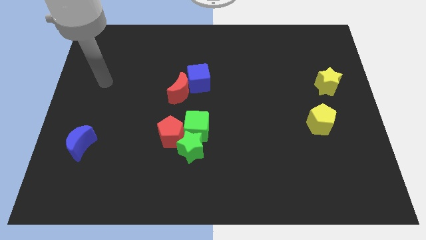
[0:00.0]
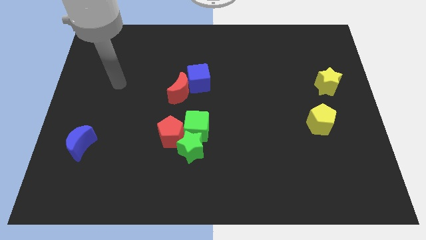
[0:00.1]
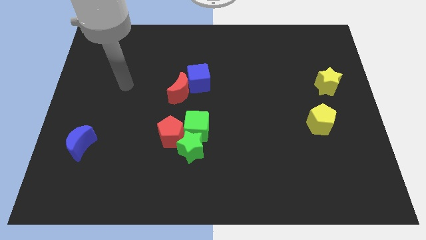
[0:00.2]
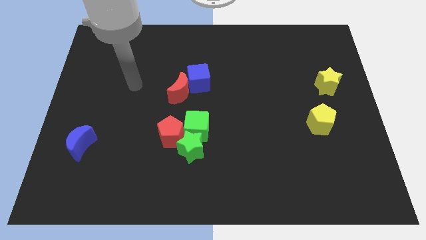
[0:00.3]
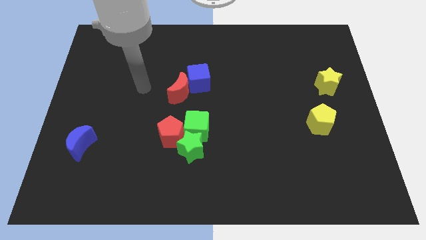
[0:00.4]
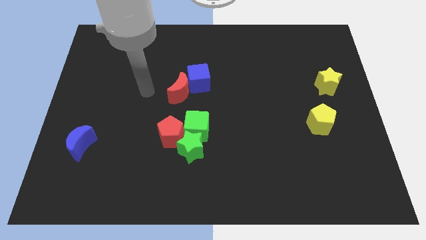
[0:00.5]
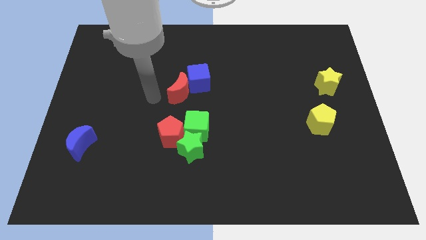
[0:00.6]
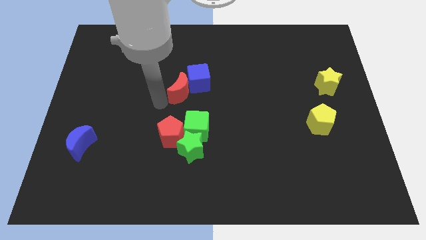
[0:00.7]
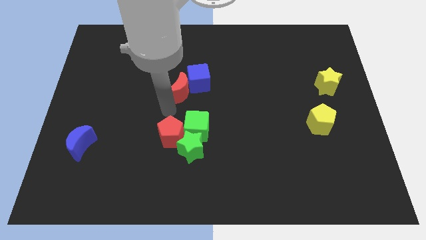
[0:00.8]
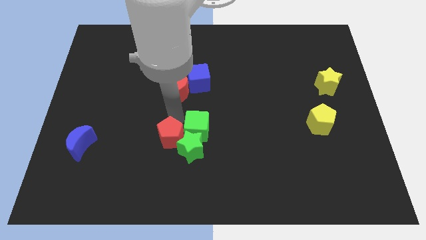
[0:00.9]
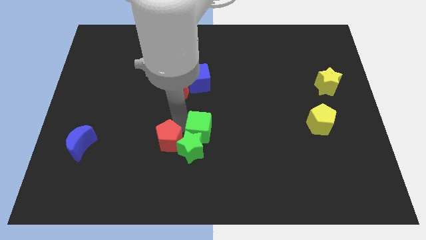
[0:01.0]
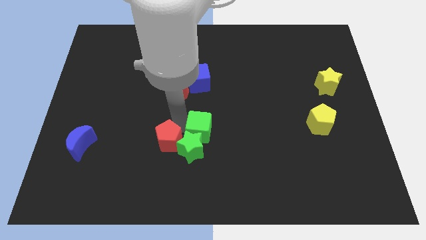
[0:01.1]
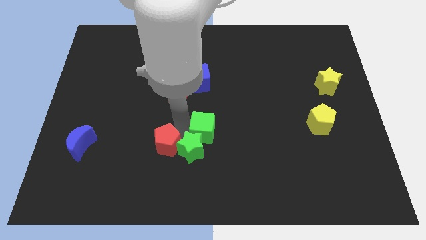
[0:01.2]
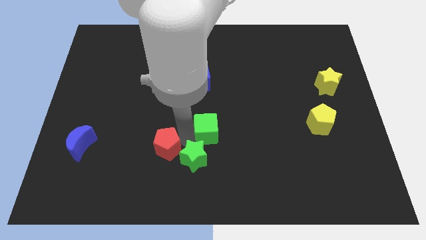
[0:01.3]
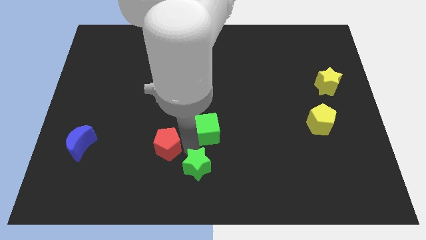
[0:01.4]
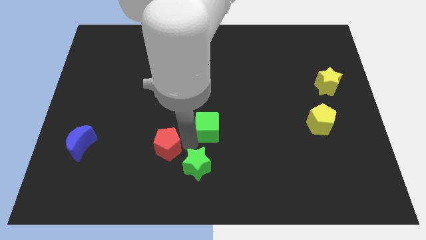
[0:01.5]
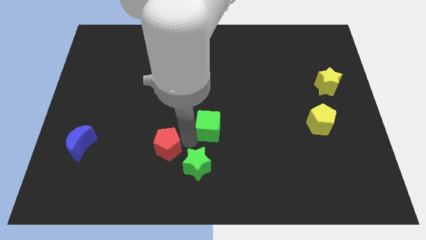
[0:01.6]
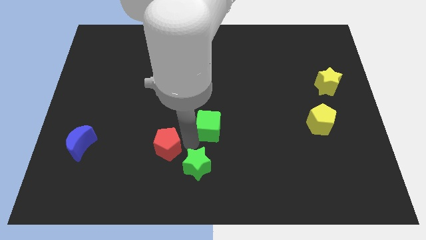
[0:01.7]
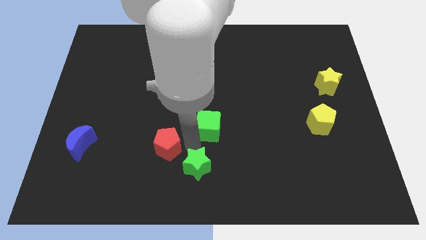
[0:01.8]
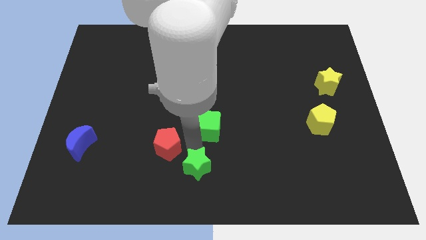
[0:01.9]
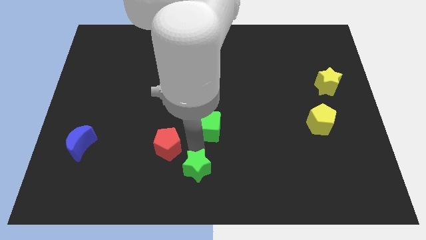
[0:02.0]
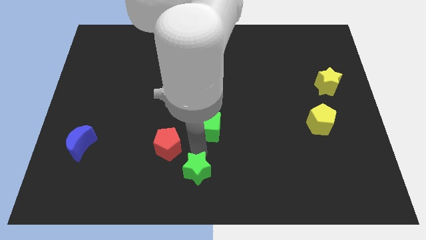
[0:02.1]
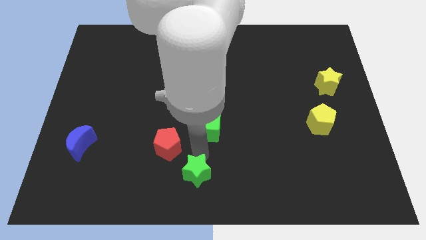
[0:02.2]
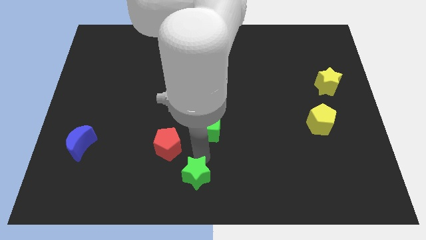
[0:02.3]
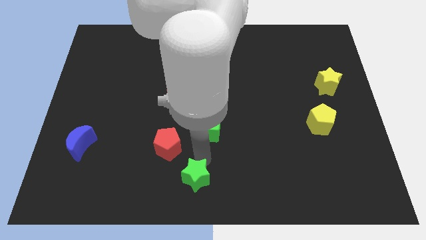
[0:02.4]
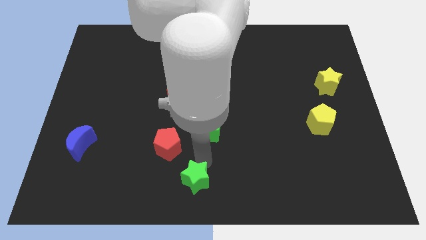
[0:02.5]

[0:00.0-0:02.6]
separate the green star from the green cube and red pentagon

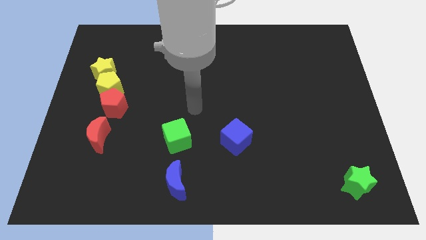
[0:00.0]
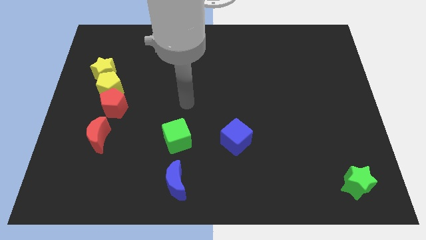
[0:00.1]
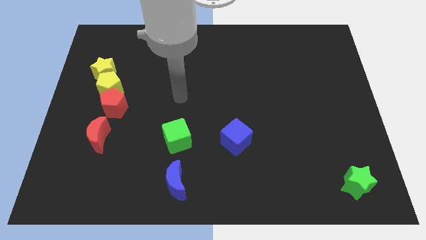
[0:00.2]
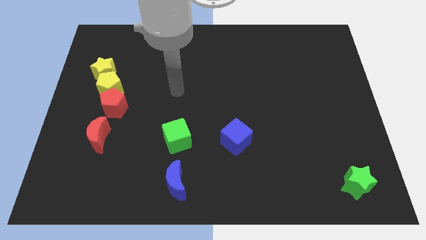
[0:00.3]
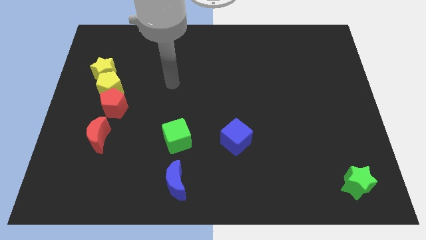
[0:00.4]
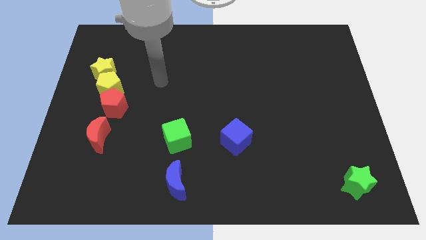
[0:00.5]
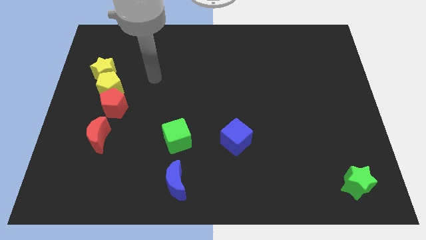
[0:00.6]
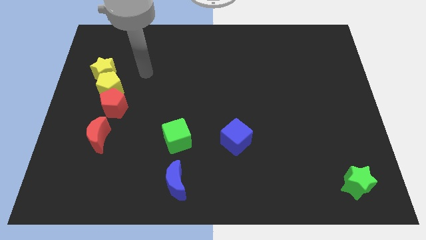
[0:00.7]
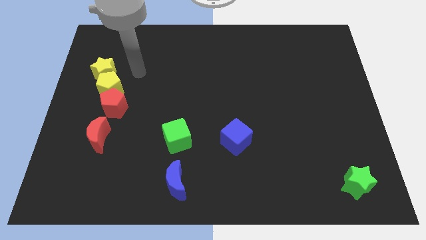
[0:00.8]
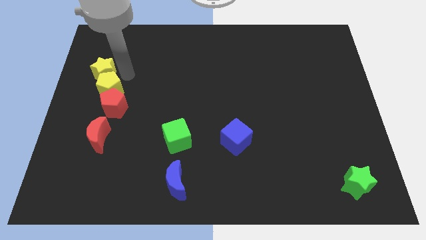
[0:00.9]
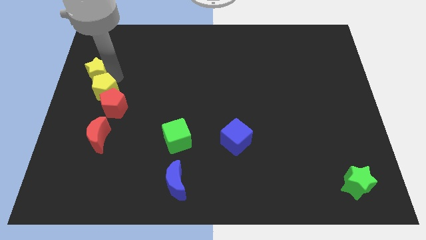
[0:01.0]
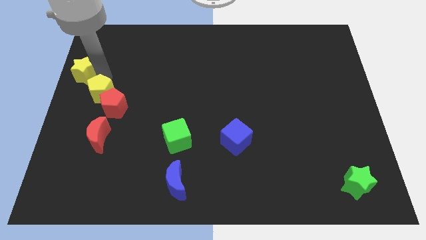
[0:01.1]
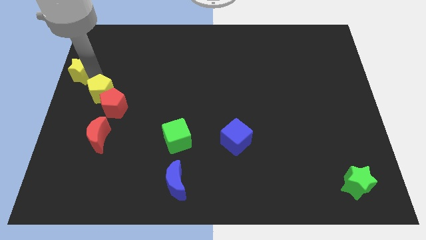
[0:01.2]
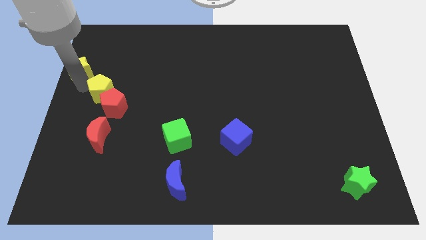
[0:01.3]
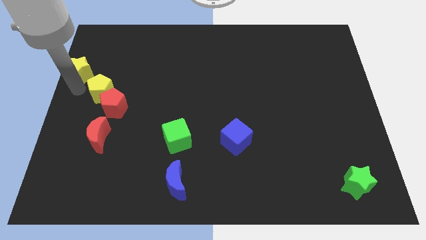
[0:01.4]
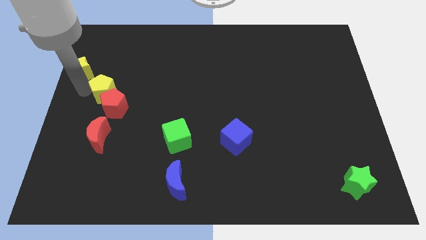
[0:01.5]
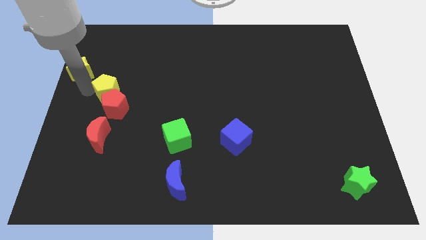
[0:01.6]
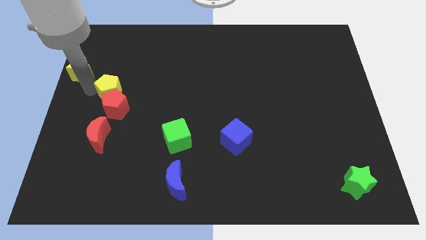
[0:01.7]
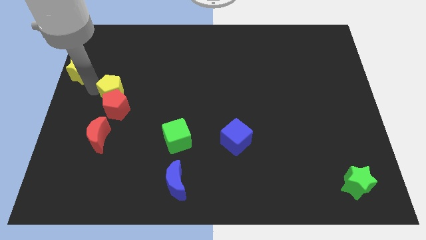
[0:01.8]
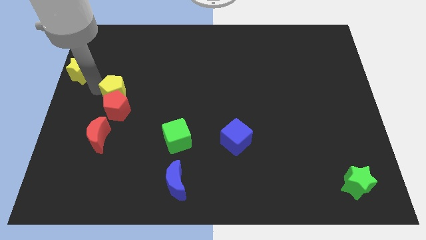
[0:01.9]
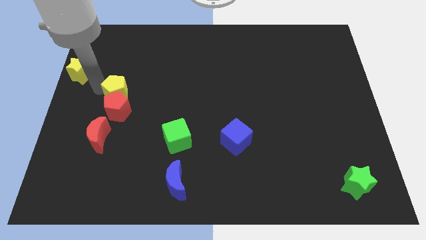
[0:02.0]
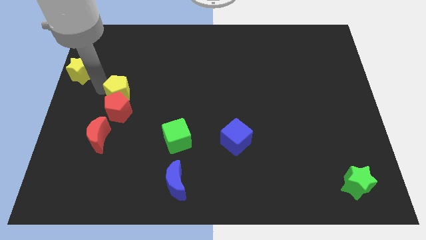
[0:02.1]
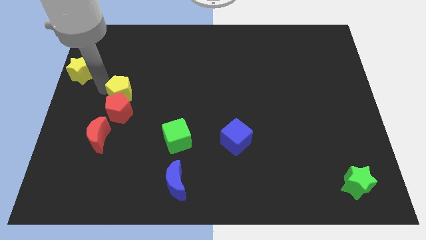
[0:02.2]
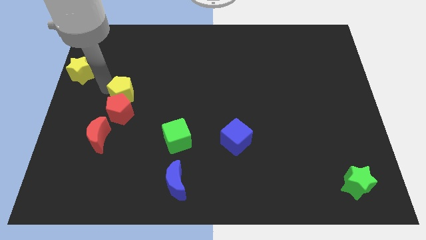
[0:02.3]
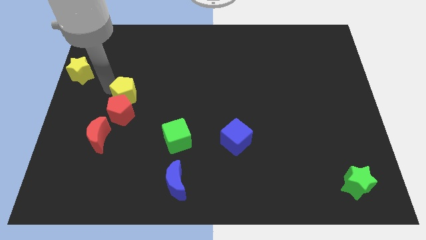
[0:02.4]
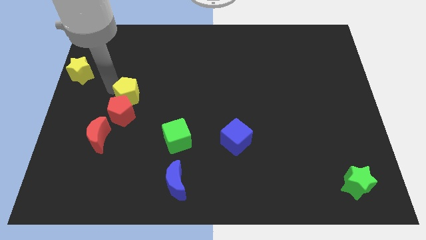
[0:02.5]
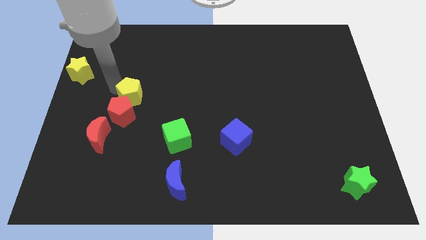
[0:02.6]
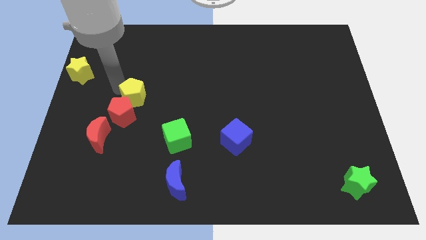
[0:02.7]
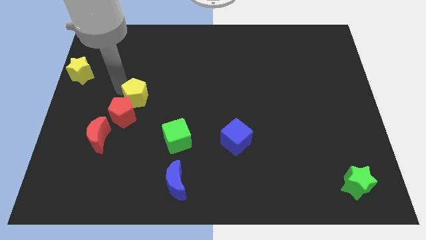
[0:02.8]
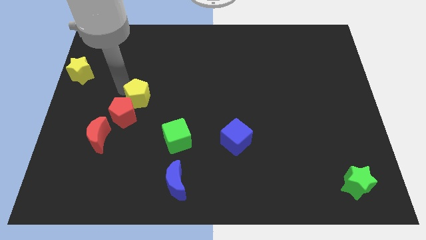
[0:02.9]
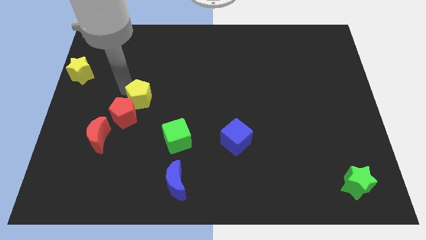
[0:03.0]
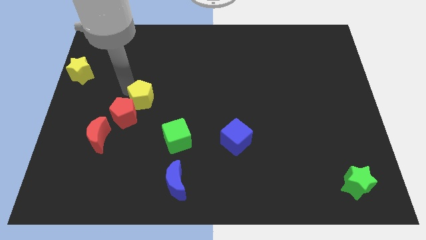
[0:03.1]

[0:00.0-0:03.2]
move the yellow pentagon away from the red pentagon and yellow star

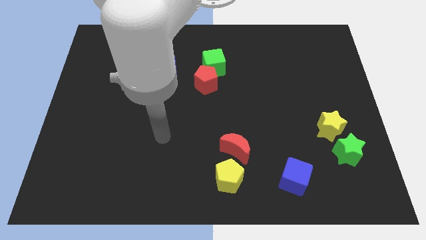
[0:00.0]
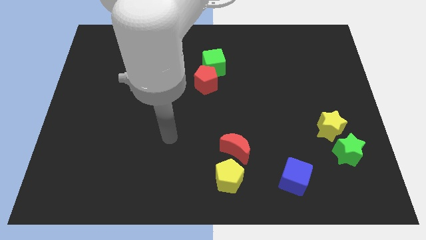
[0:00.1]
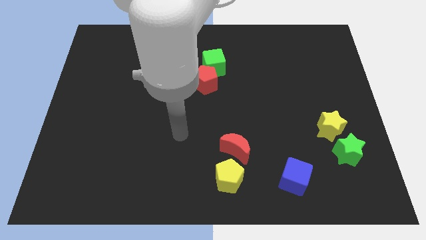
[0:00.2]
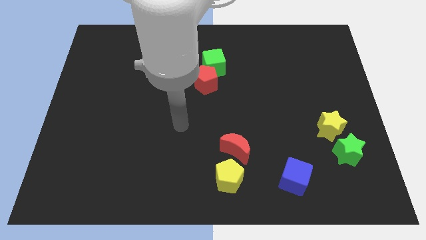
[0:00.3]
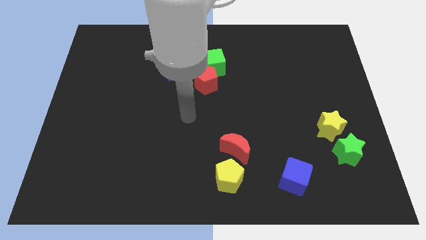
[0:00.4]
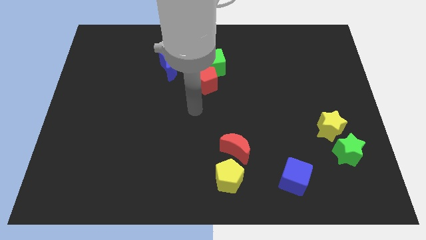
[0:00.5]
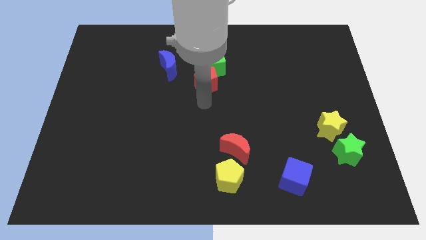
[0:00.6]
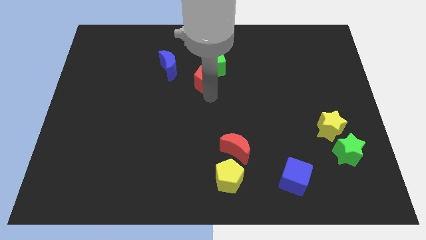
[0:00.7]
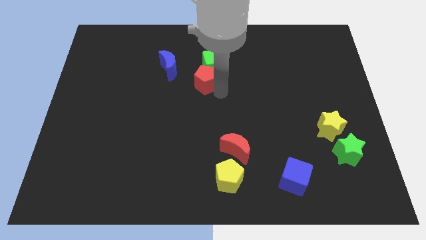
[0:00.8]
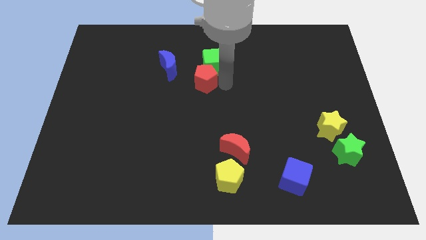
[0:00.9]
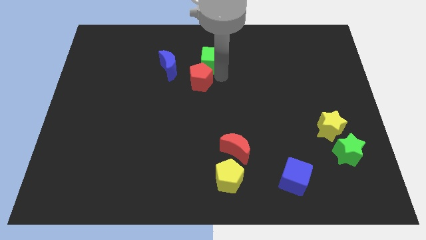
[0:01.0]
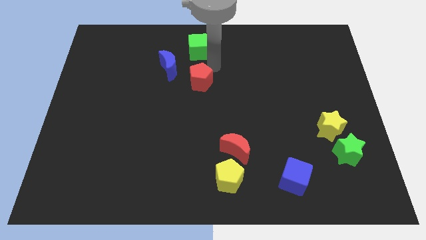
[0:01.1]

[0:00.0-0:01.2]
separate the red pentagon from the green cube

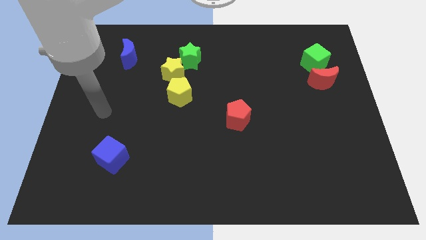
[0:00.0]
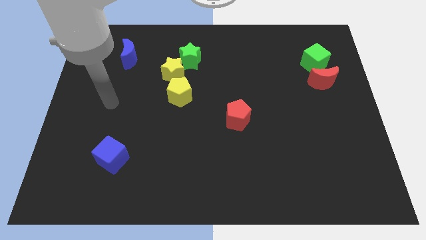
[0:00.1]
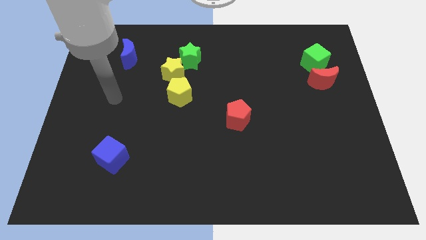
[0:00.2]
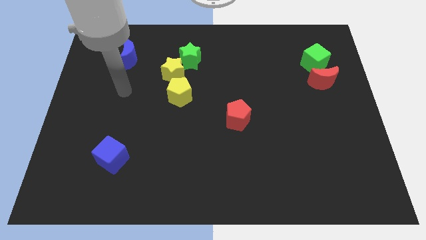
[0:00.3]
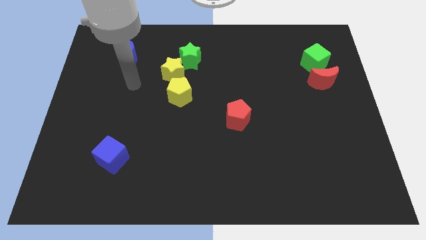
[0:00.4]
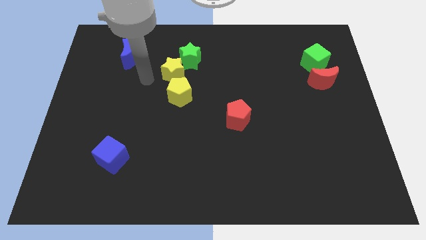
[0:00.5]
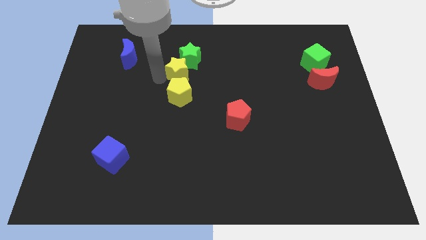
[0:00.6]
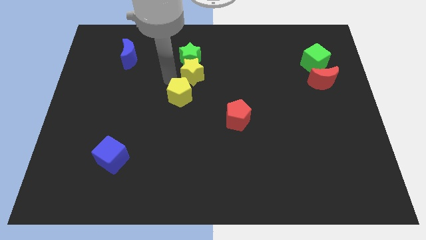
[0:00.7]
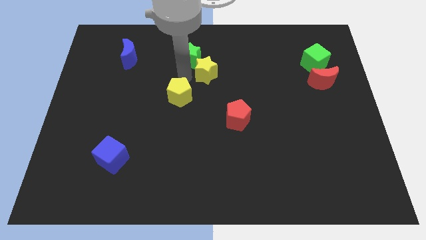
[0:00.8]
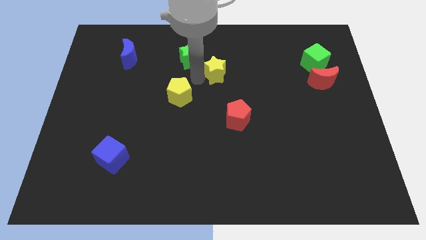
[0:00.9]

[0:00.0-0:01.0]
separate the yellow pentagon from the yellow star

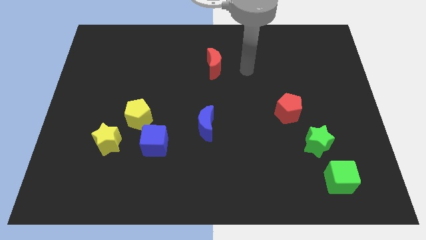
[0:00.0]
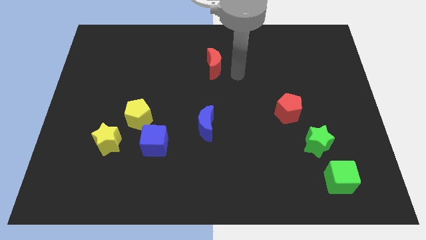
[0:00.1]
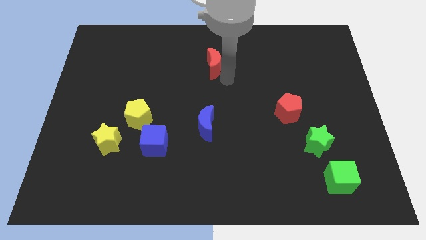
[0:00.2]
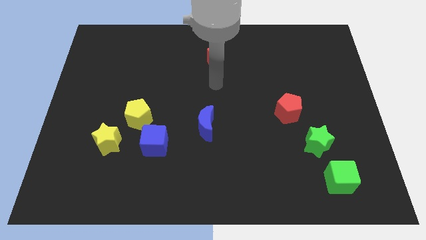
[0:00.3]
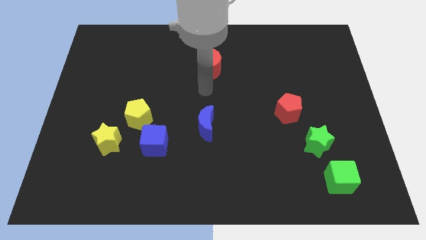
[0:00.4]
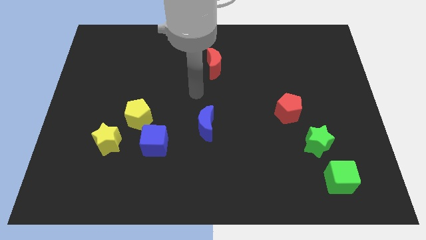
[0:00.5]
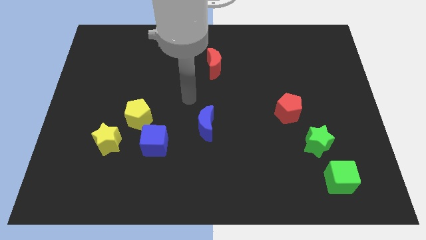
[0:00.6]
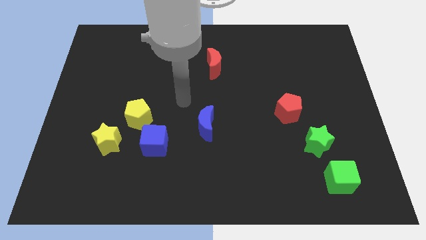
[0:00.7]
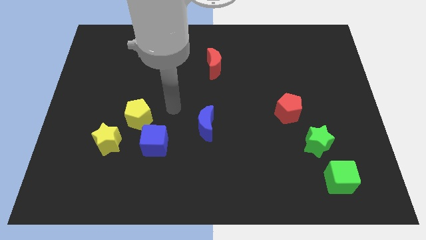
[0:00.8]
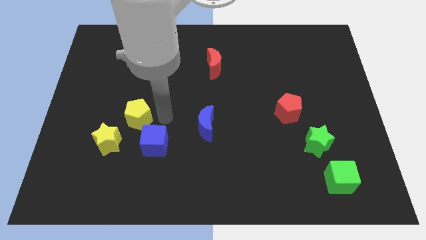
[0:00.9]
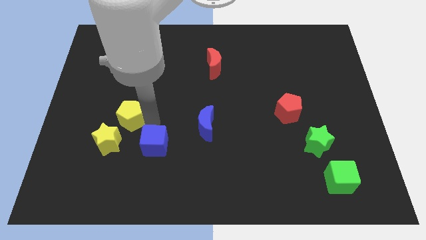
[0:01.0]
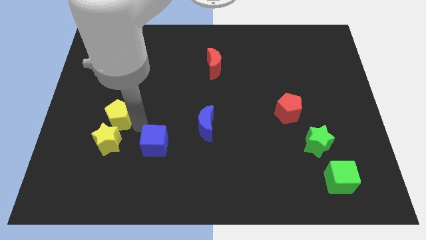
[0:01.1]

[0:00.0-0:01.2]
separate the blue cube from the yellow pentagon

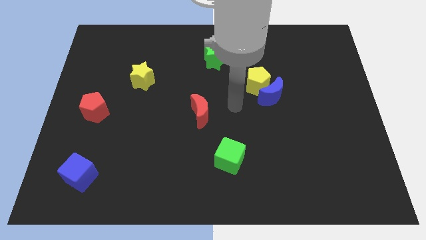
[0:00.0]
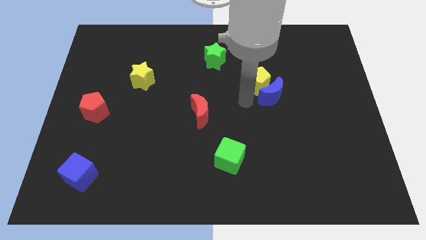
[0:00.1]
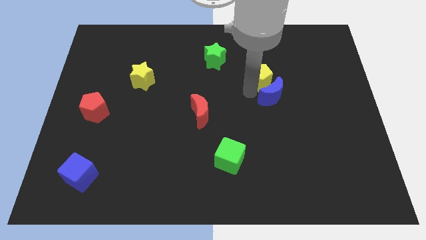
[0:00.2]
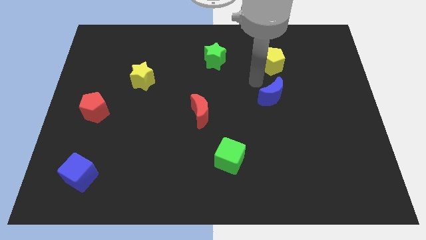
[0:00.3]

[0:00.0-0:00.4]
pull the blue moon apart from the yellow pentagon
